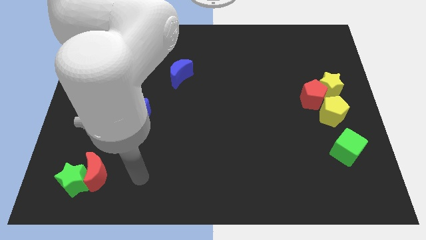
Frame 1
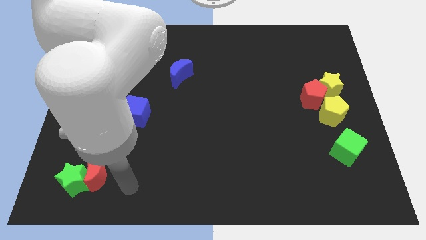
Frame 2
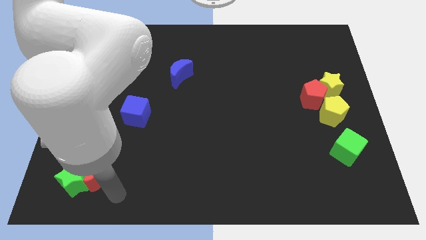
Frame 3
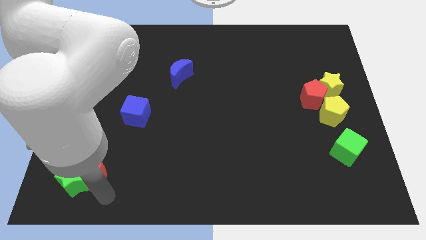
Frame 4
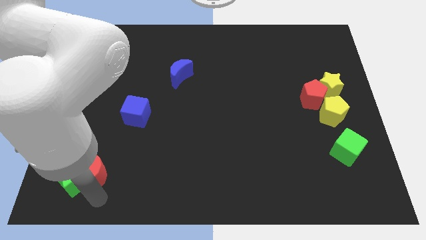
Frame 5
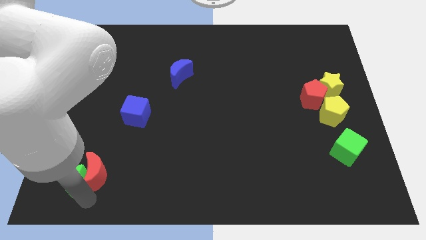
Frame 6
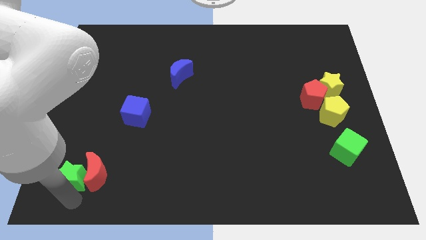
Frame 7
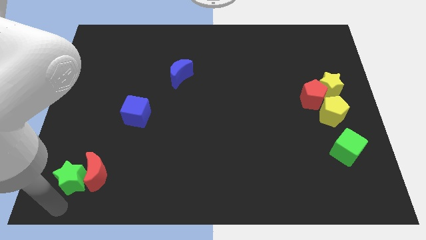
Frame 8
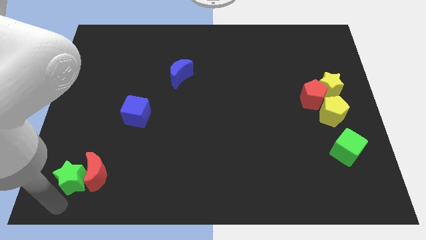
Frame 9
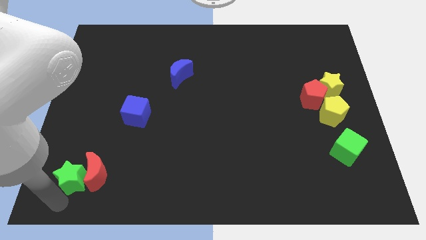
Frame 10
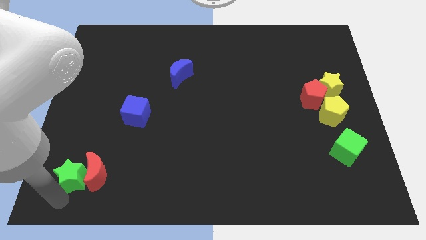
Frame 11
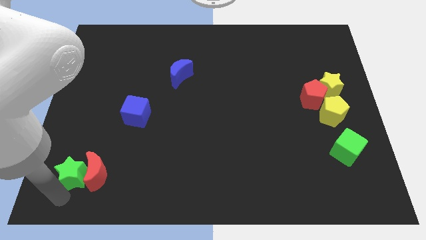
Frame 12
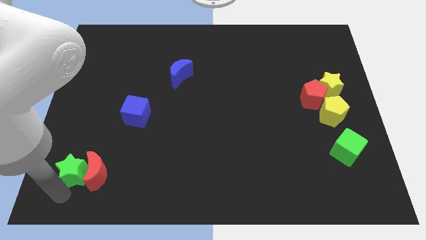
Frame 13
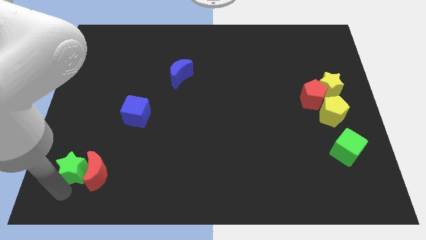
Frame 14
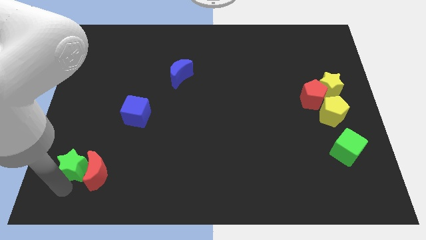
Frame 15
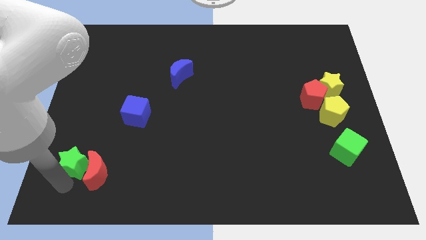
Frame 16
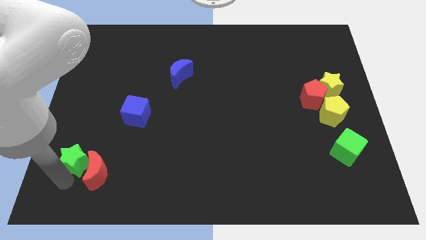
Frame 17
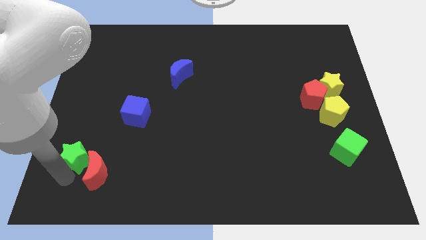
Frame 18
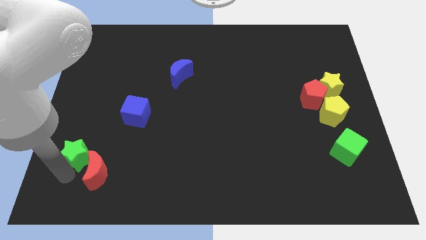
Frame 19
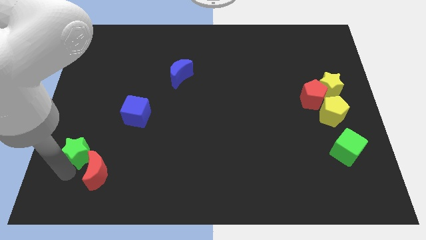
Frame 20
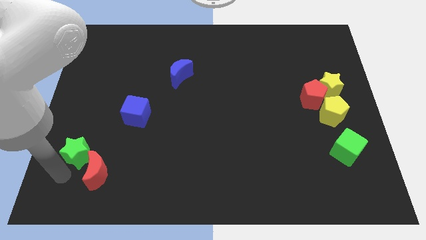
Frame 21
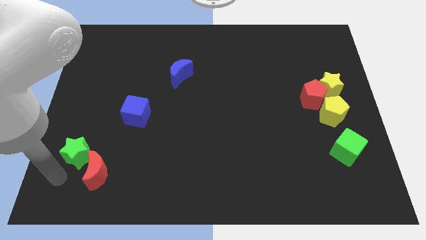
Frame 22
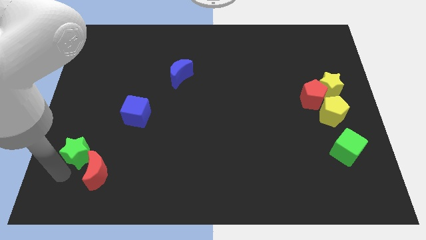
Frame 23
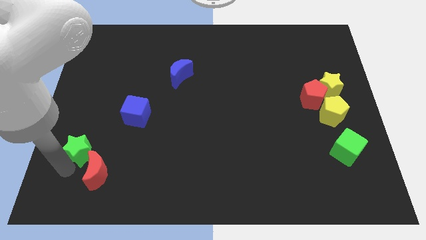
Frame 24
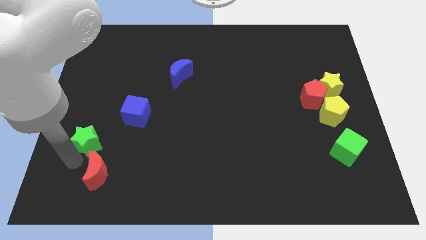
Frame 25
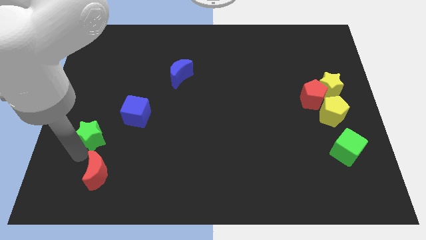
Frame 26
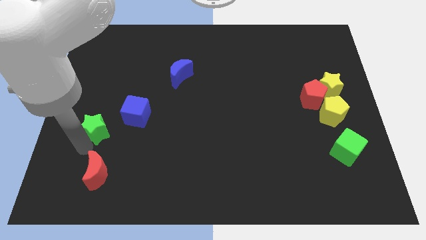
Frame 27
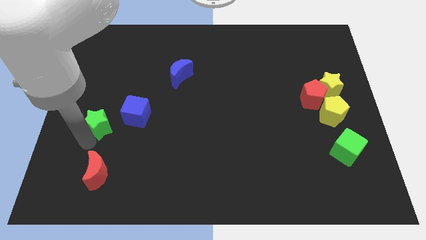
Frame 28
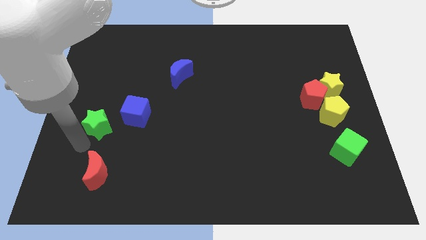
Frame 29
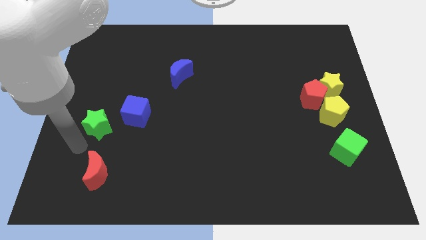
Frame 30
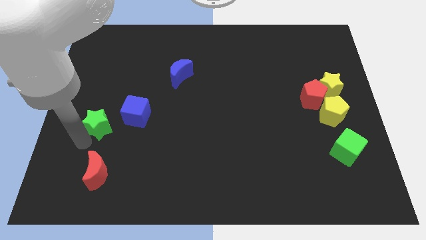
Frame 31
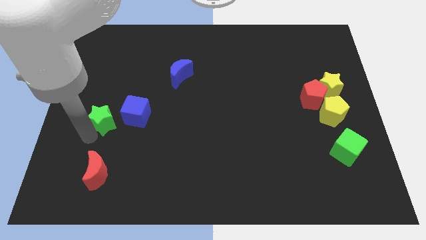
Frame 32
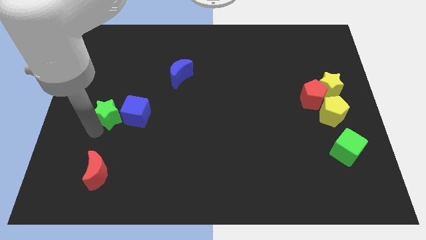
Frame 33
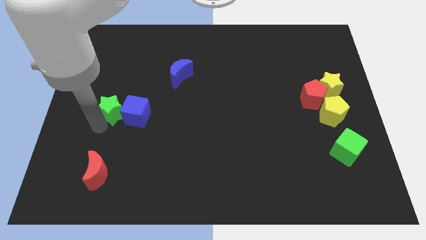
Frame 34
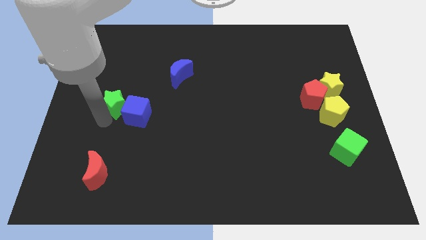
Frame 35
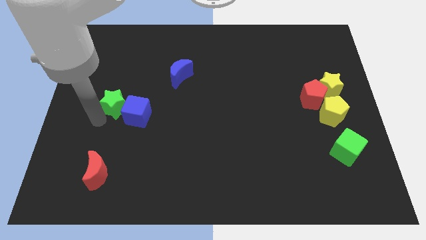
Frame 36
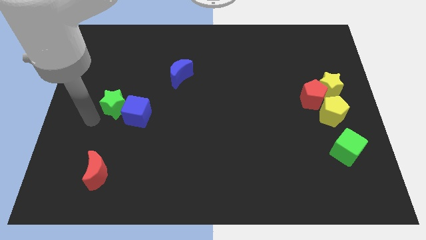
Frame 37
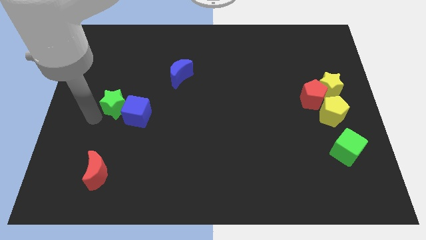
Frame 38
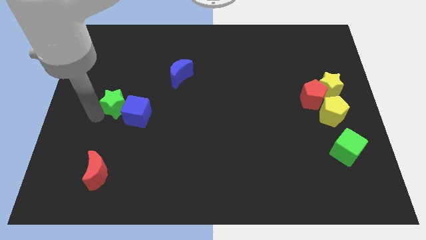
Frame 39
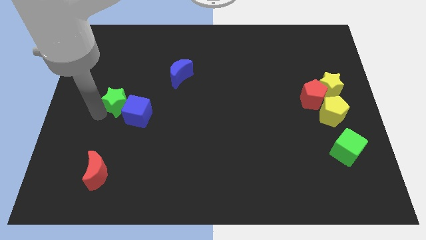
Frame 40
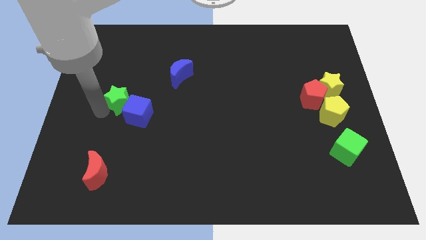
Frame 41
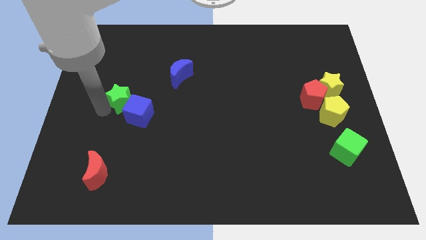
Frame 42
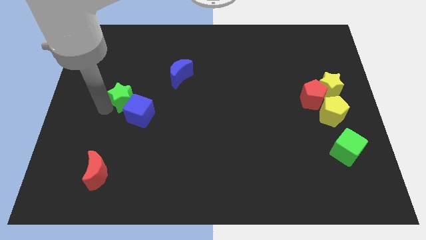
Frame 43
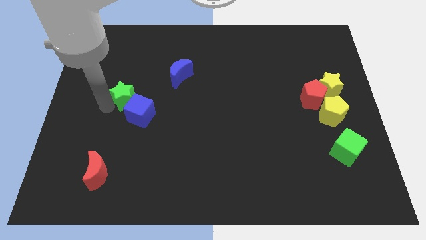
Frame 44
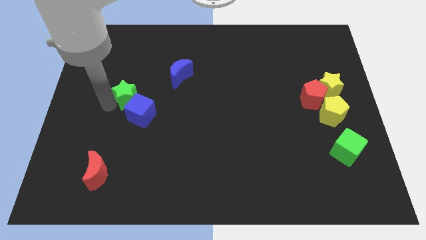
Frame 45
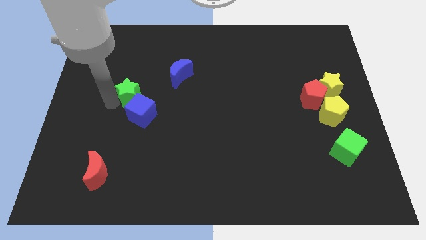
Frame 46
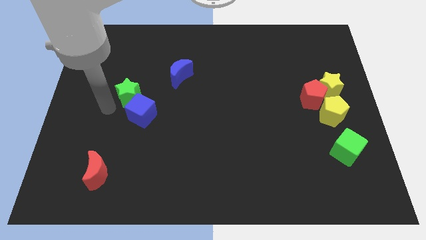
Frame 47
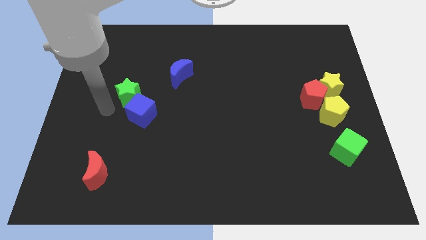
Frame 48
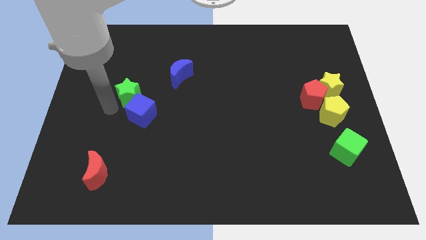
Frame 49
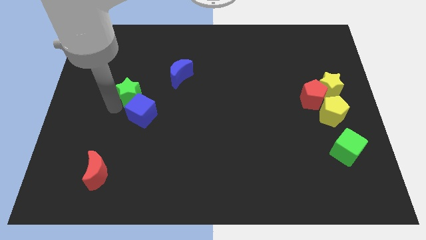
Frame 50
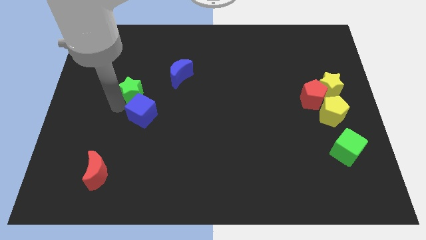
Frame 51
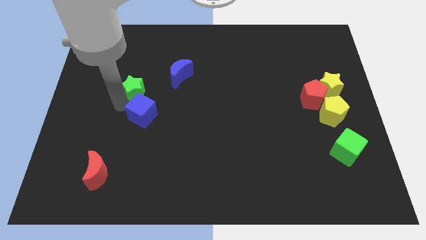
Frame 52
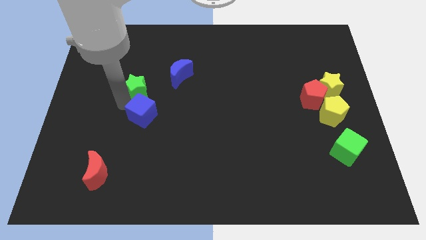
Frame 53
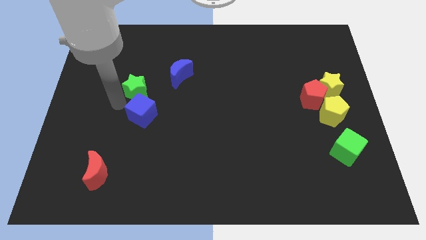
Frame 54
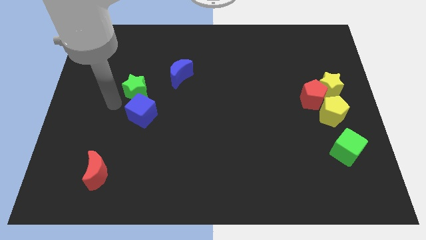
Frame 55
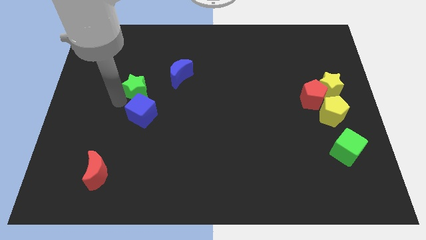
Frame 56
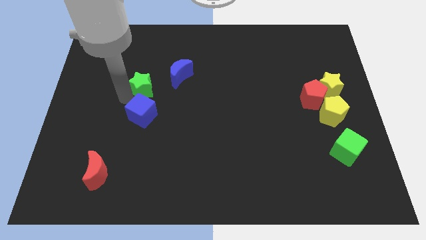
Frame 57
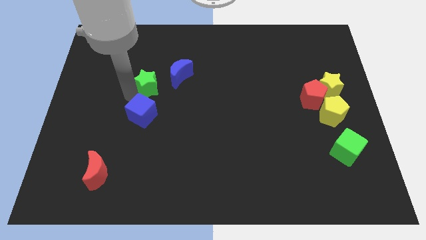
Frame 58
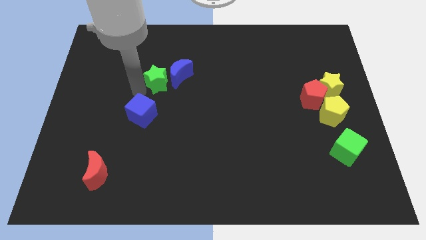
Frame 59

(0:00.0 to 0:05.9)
move the green star next to the blue moon

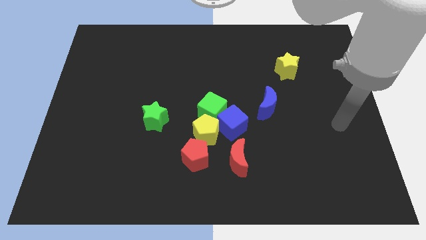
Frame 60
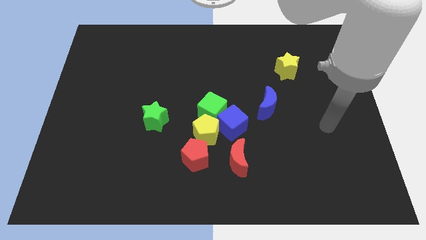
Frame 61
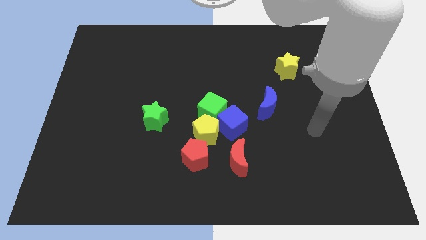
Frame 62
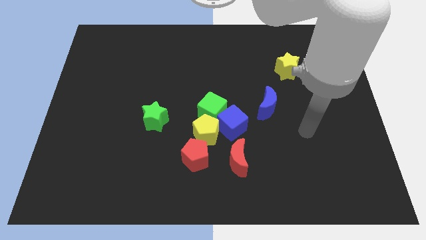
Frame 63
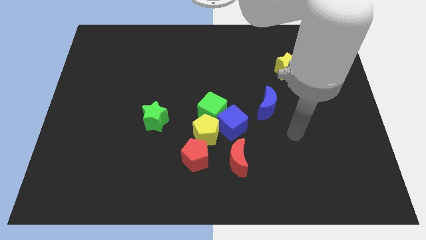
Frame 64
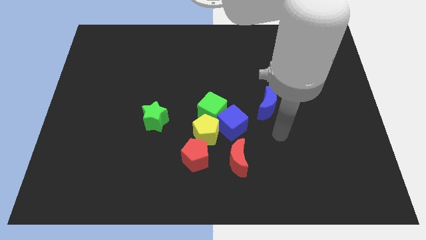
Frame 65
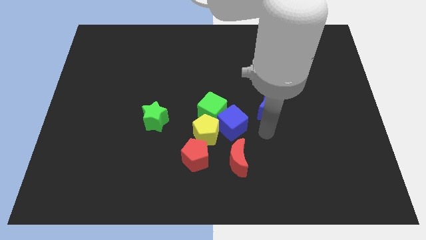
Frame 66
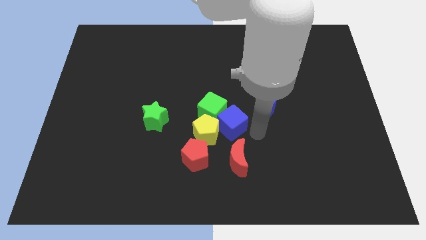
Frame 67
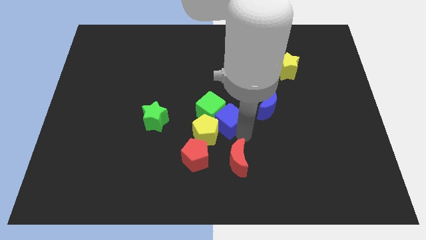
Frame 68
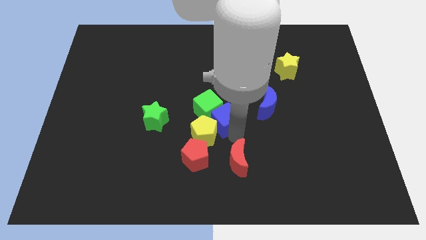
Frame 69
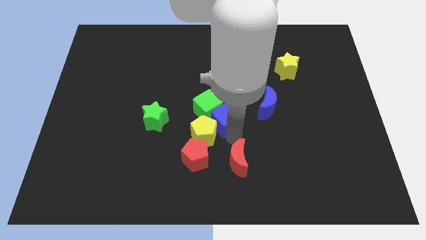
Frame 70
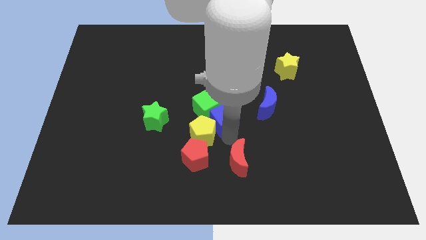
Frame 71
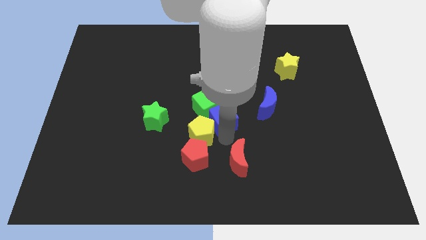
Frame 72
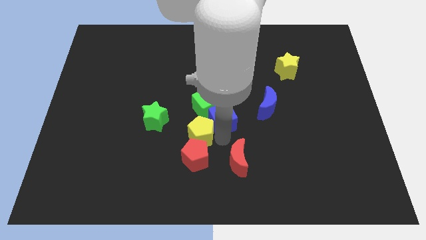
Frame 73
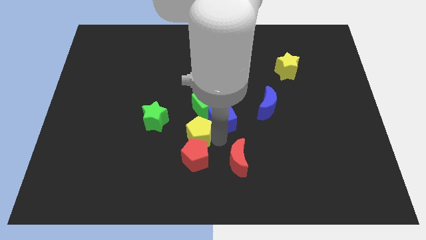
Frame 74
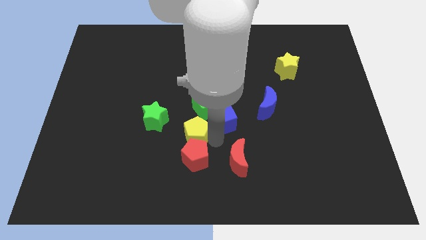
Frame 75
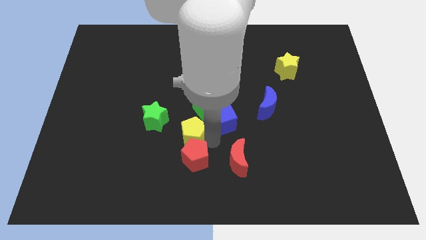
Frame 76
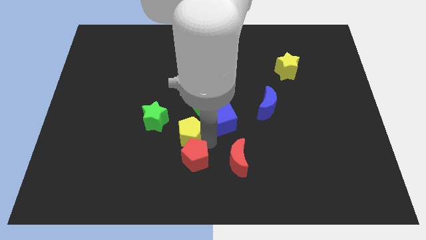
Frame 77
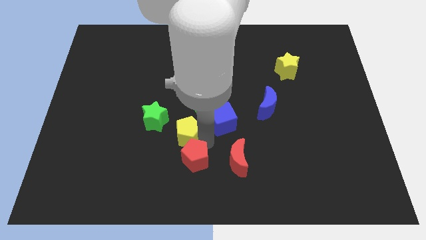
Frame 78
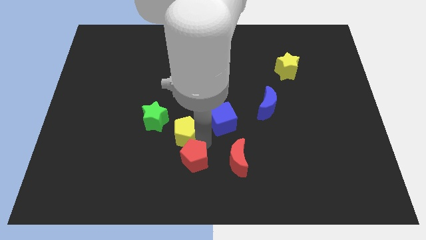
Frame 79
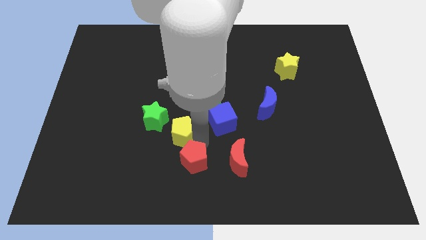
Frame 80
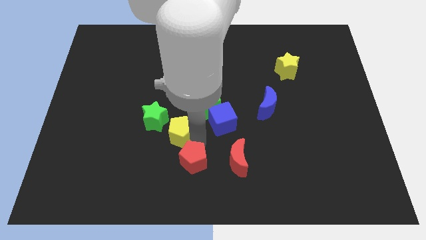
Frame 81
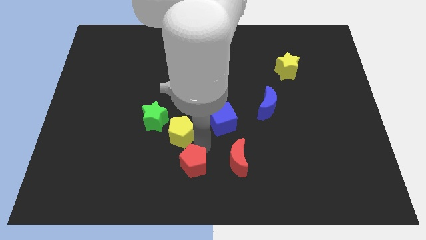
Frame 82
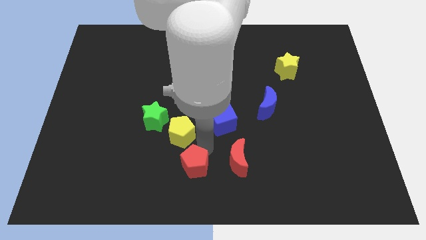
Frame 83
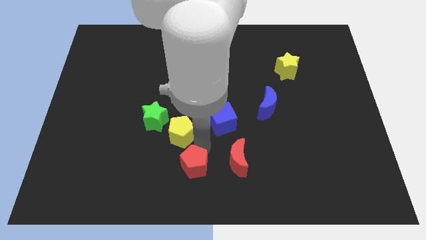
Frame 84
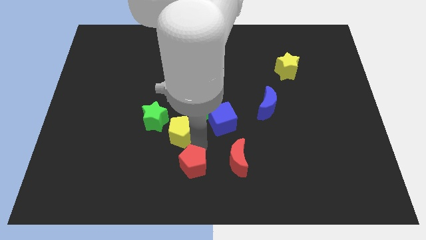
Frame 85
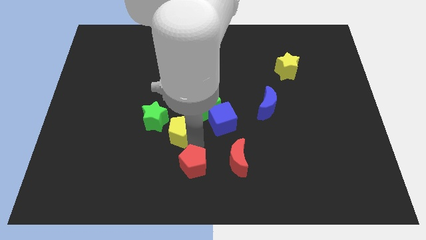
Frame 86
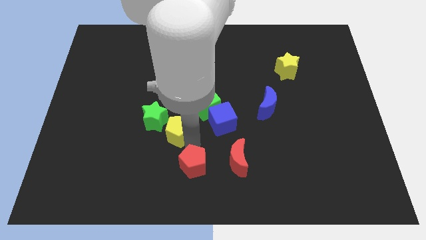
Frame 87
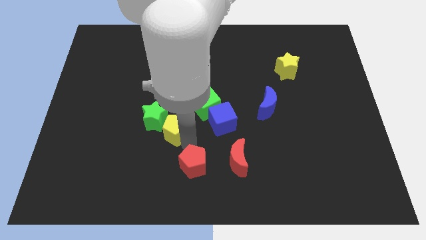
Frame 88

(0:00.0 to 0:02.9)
put the yellow pentagon to the green star
